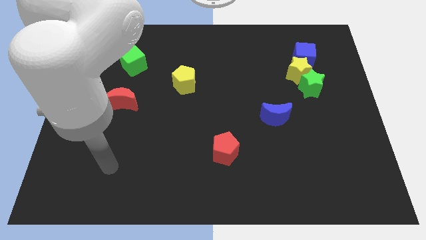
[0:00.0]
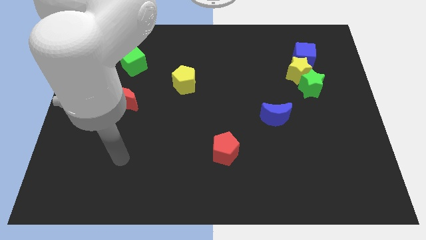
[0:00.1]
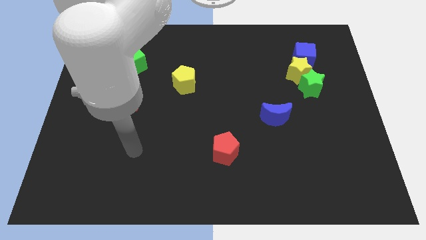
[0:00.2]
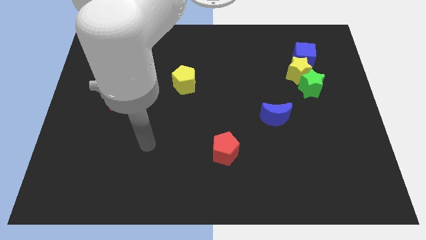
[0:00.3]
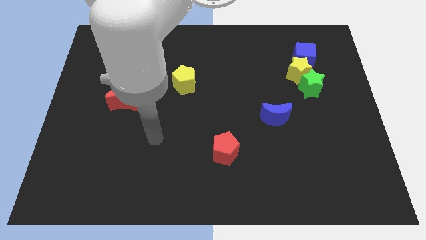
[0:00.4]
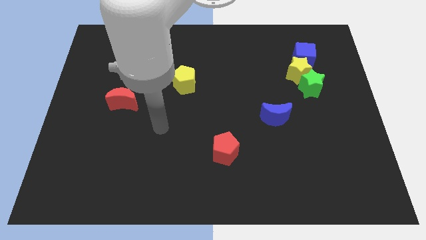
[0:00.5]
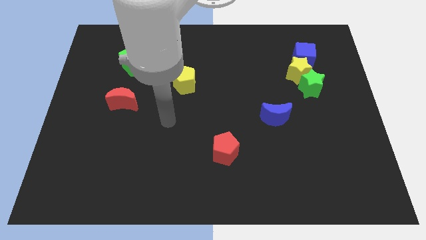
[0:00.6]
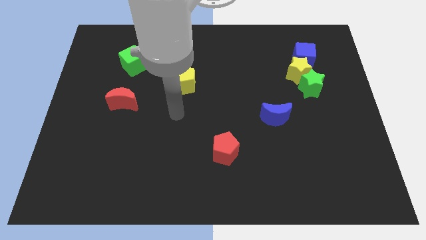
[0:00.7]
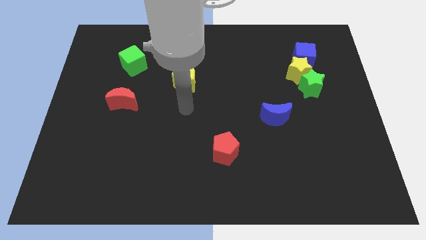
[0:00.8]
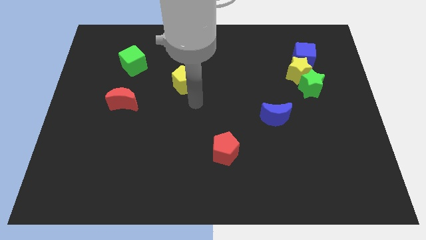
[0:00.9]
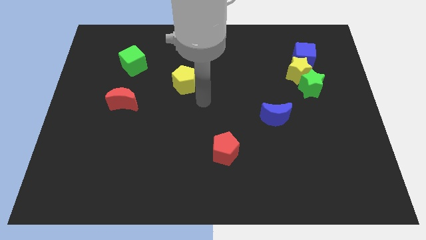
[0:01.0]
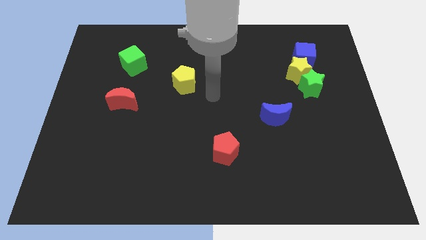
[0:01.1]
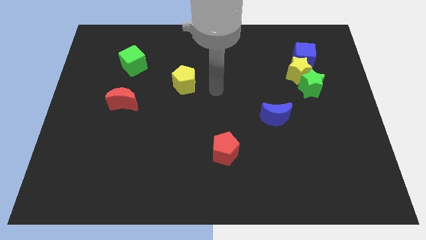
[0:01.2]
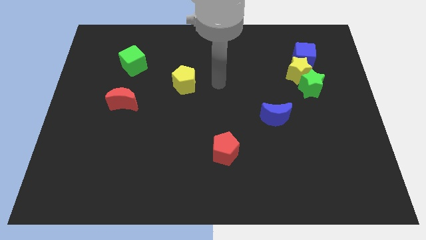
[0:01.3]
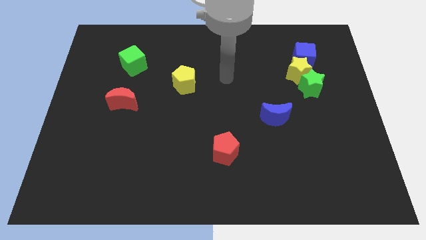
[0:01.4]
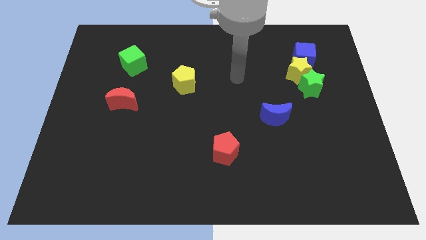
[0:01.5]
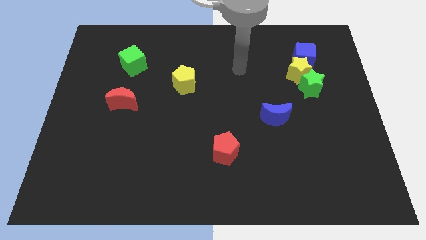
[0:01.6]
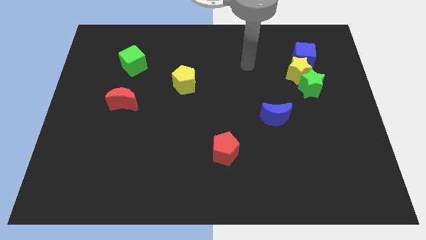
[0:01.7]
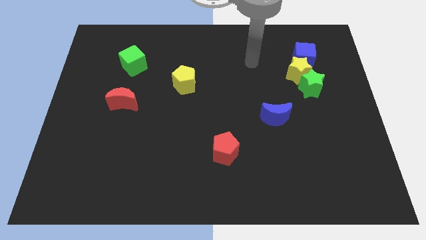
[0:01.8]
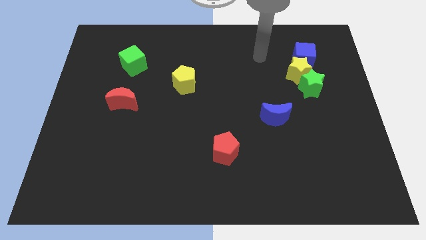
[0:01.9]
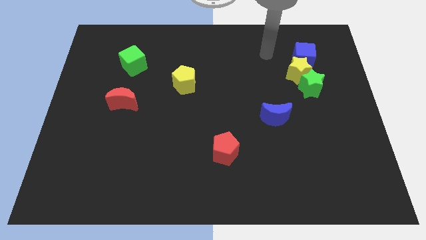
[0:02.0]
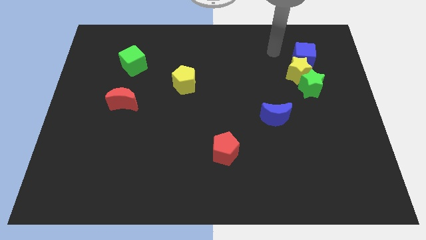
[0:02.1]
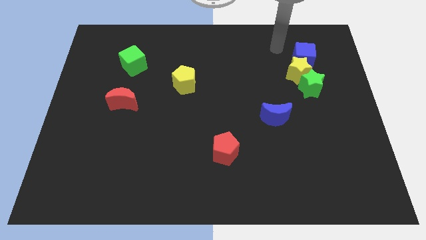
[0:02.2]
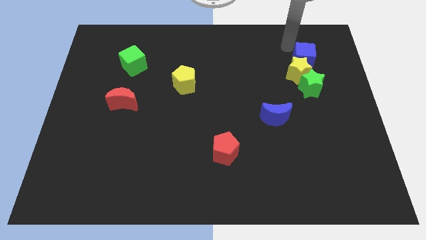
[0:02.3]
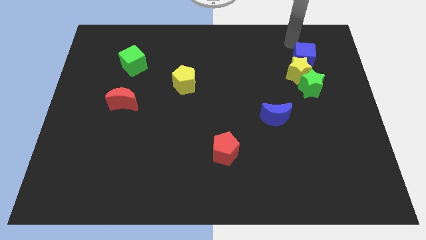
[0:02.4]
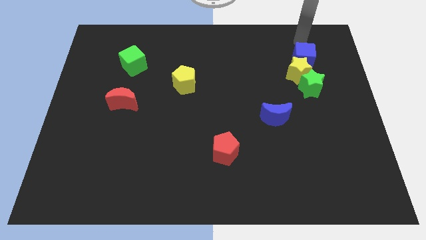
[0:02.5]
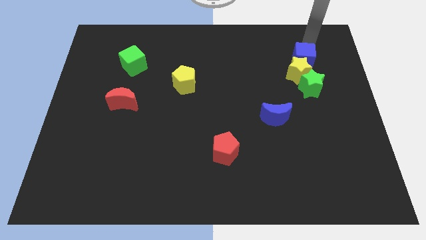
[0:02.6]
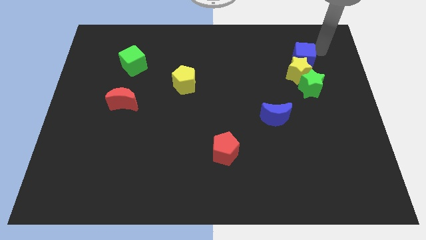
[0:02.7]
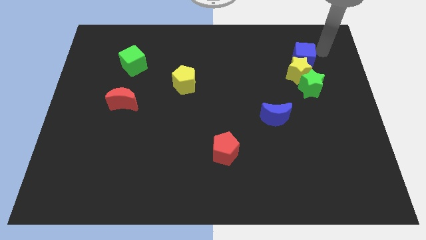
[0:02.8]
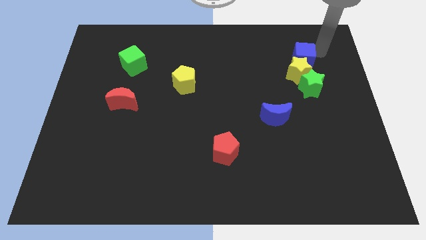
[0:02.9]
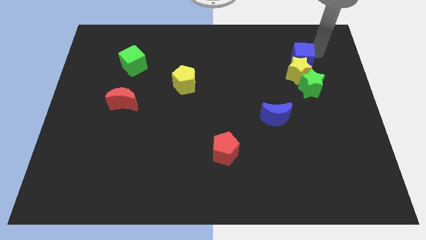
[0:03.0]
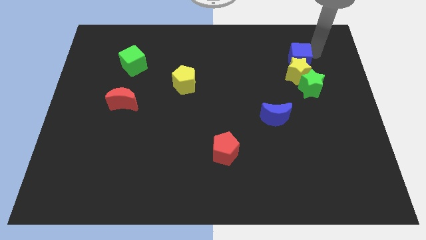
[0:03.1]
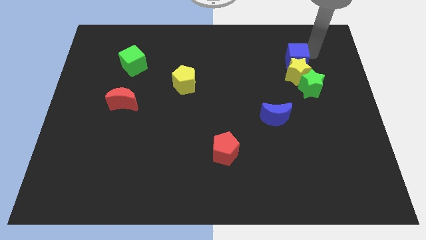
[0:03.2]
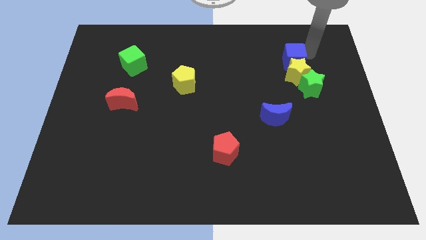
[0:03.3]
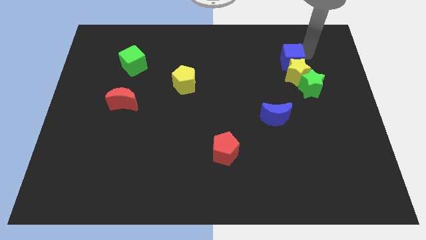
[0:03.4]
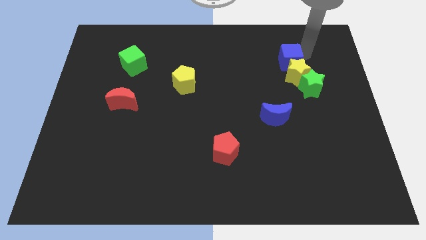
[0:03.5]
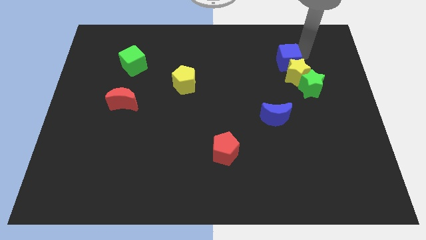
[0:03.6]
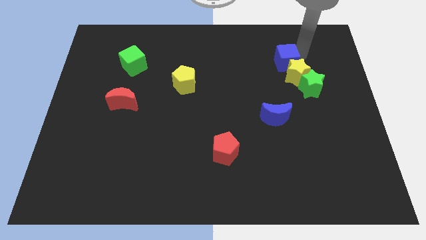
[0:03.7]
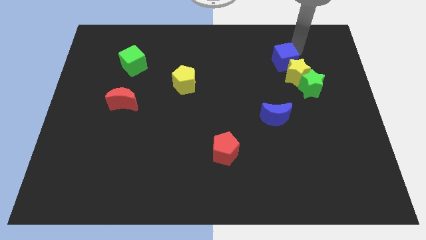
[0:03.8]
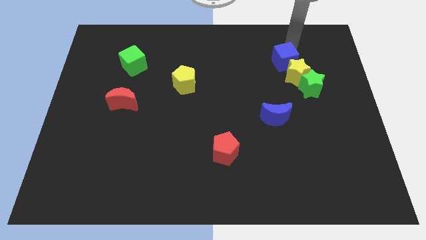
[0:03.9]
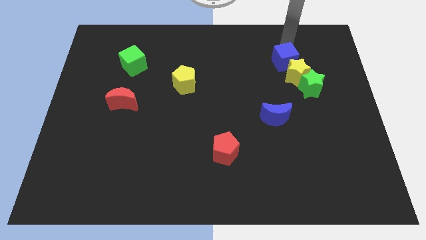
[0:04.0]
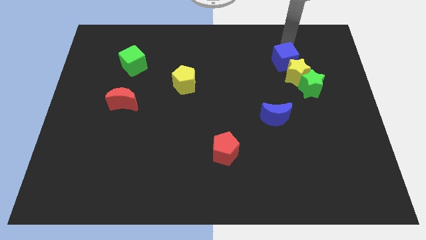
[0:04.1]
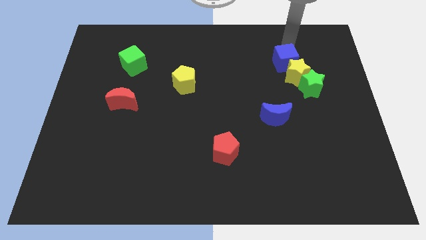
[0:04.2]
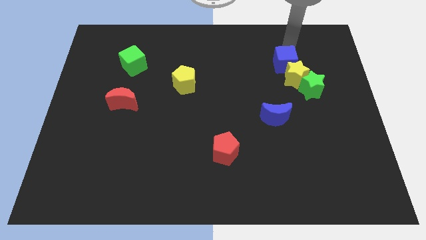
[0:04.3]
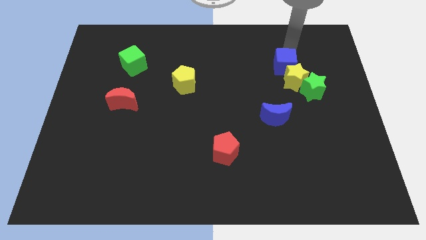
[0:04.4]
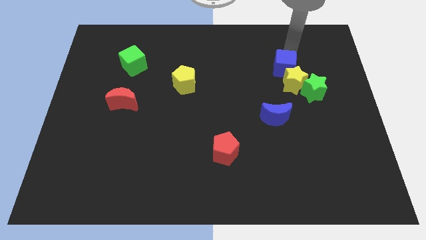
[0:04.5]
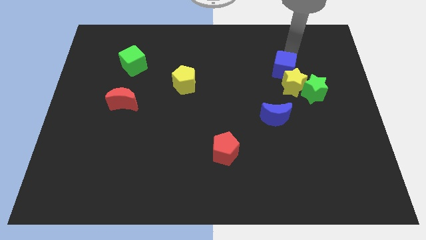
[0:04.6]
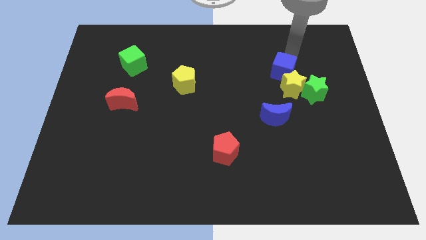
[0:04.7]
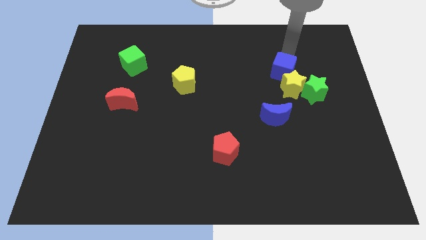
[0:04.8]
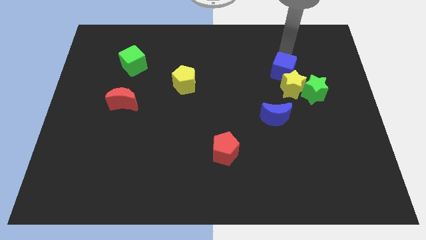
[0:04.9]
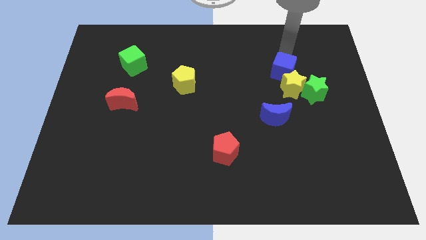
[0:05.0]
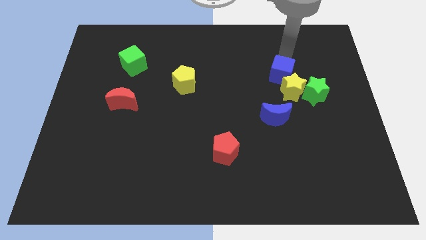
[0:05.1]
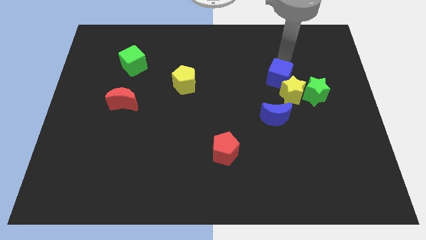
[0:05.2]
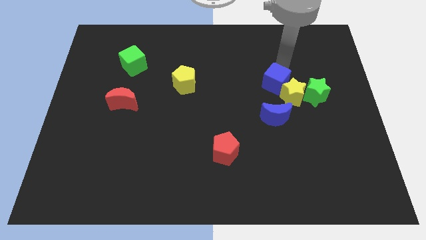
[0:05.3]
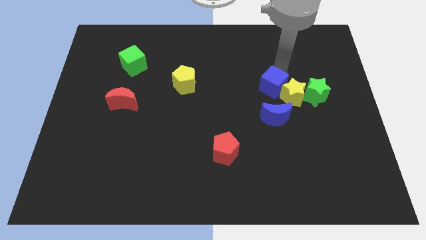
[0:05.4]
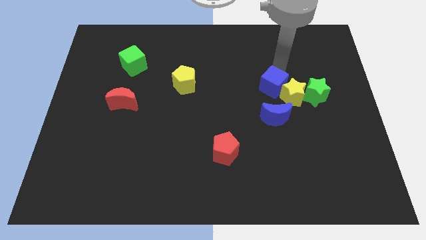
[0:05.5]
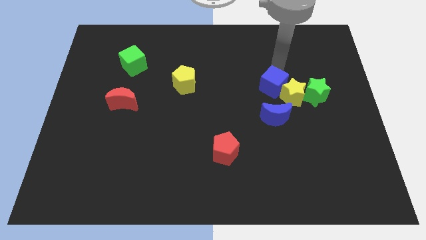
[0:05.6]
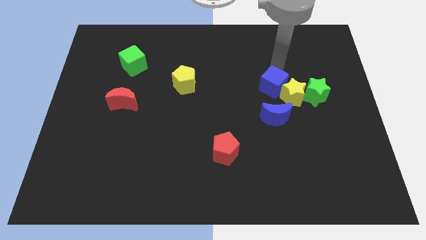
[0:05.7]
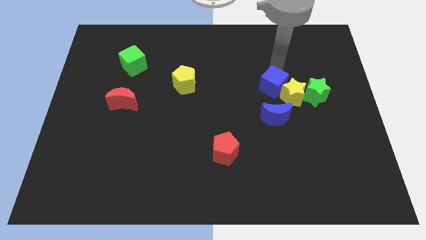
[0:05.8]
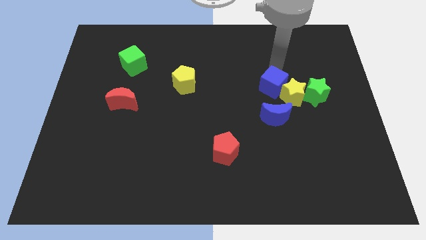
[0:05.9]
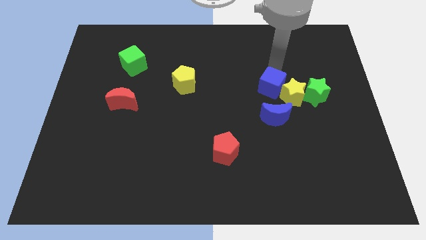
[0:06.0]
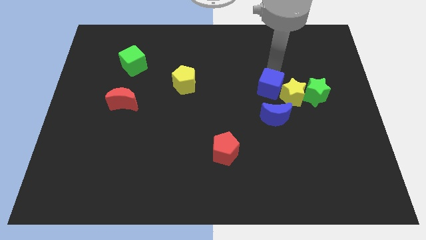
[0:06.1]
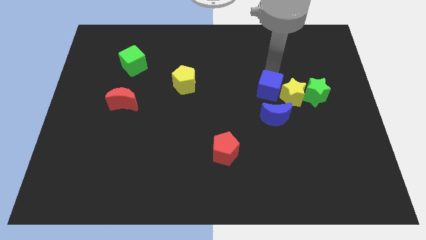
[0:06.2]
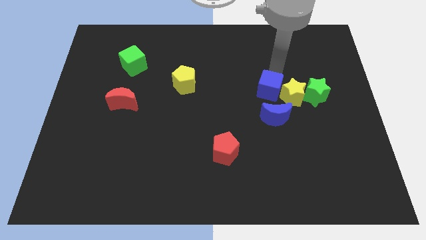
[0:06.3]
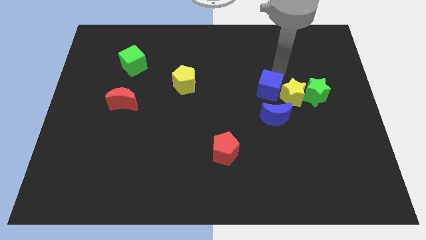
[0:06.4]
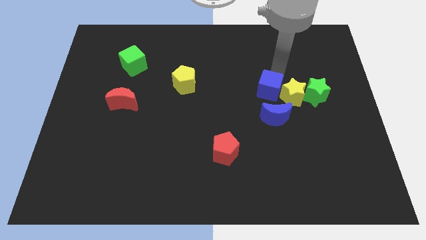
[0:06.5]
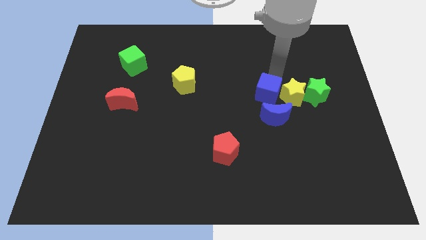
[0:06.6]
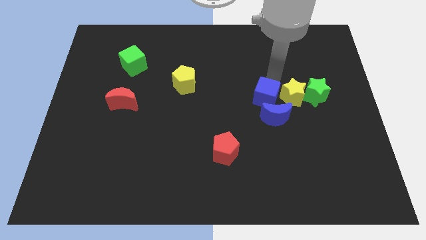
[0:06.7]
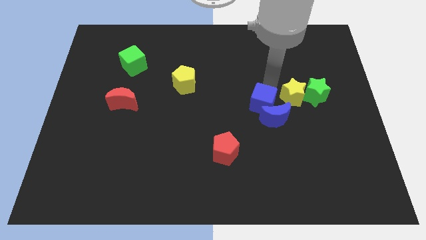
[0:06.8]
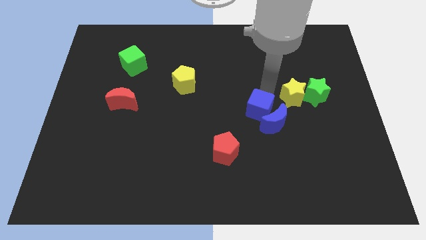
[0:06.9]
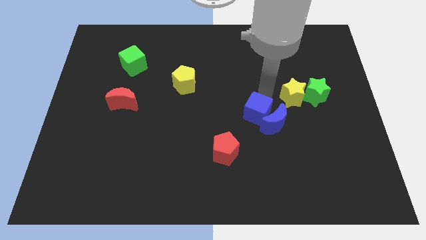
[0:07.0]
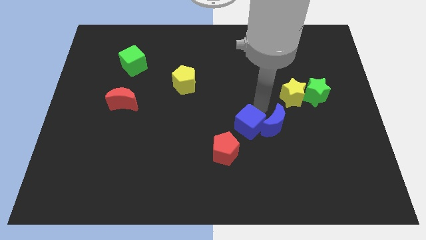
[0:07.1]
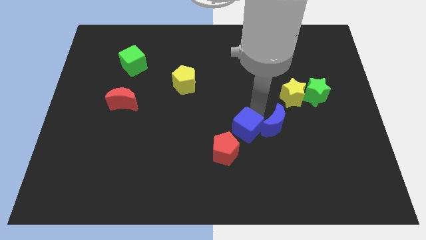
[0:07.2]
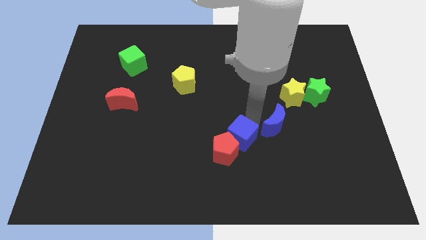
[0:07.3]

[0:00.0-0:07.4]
move the blue cube close to the red pentagon

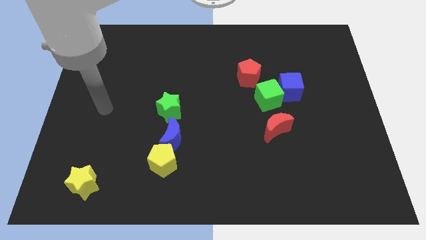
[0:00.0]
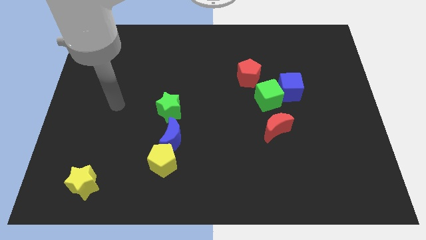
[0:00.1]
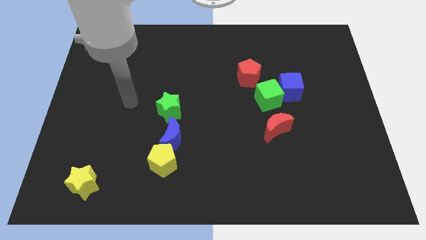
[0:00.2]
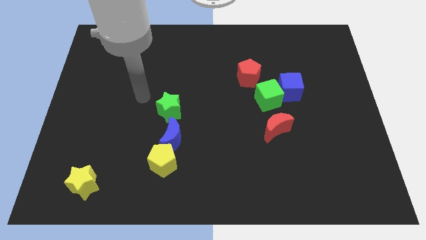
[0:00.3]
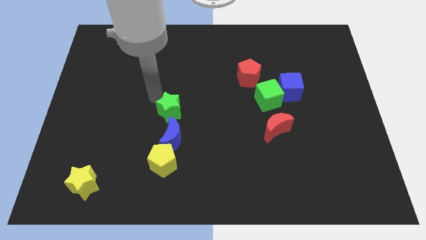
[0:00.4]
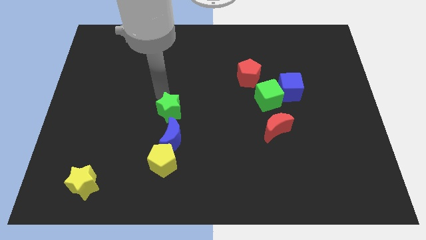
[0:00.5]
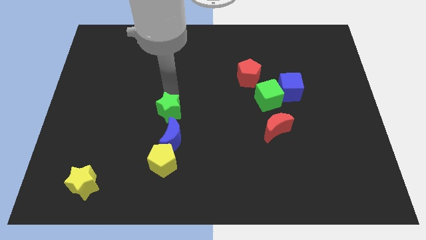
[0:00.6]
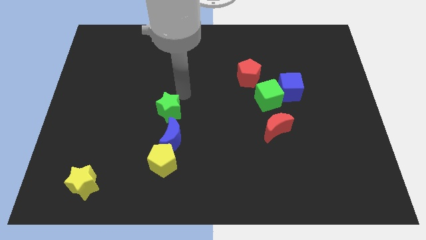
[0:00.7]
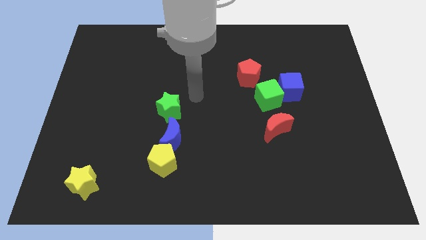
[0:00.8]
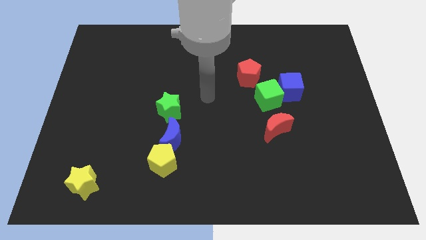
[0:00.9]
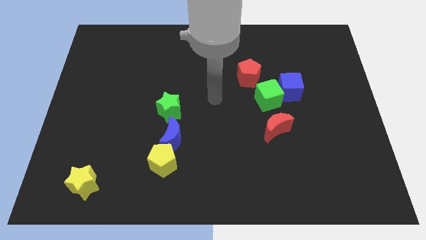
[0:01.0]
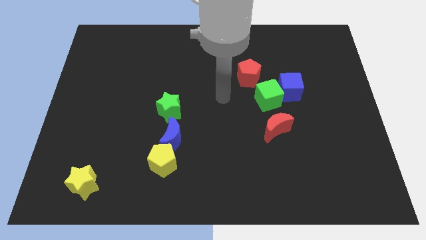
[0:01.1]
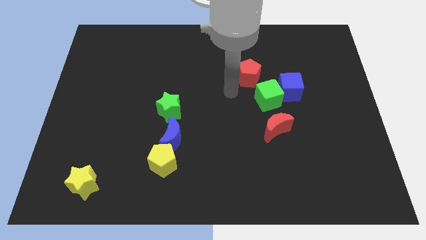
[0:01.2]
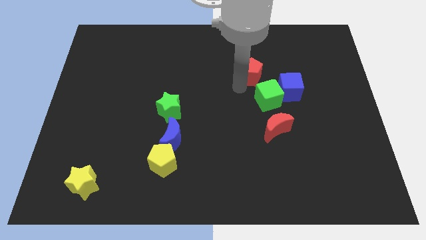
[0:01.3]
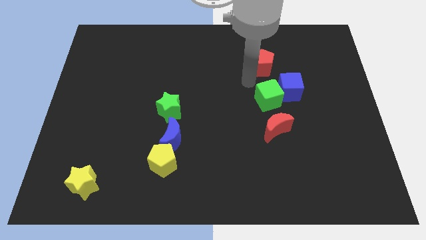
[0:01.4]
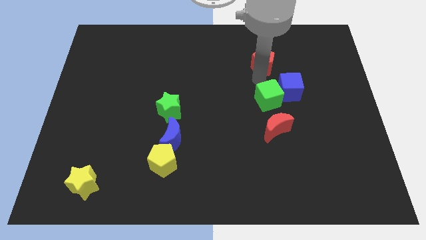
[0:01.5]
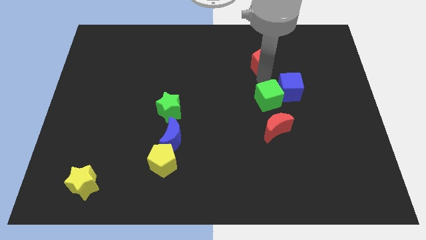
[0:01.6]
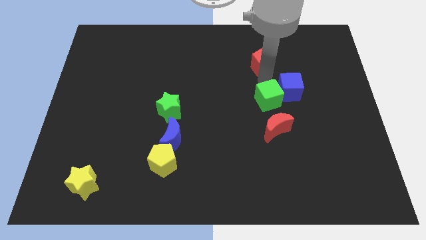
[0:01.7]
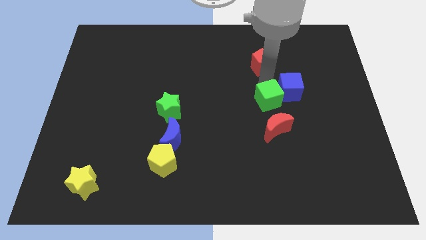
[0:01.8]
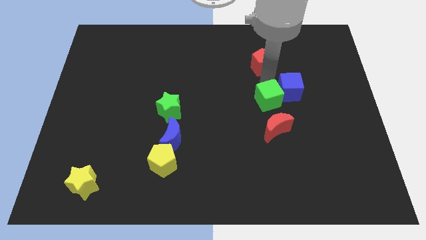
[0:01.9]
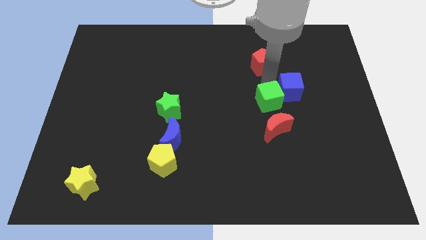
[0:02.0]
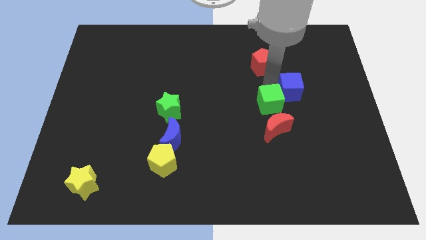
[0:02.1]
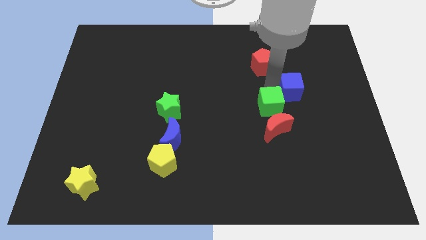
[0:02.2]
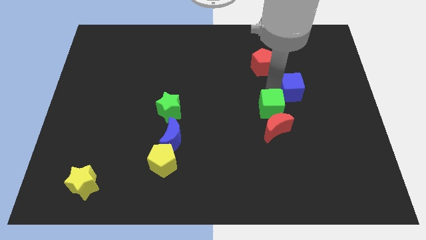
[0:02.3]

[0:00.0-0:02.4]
slide the green cube close to the red moon
